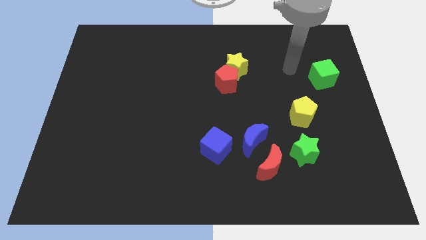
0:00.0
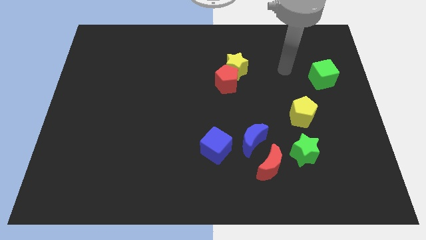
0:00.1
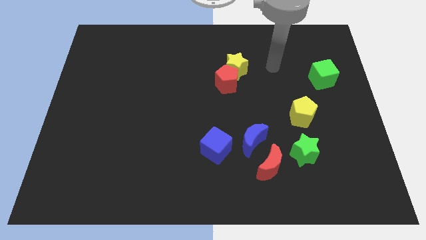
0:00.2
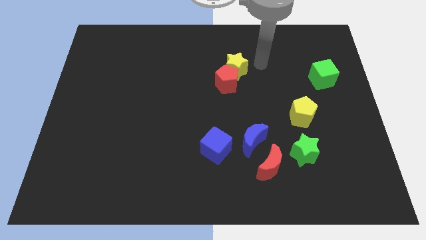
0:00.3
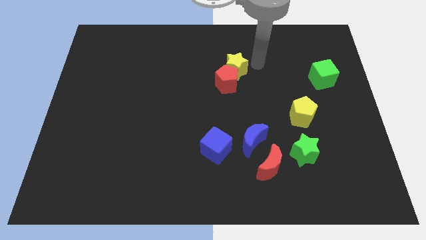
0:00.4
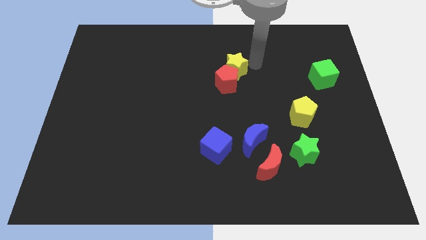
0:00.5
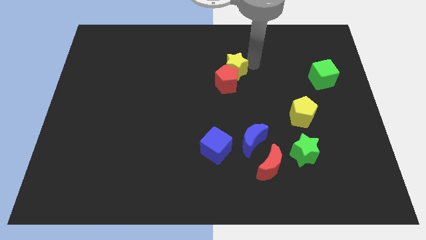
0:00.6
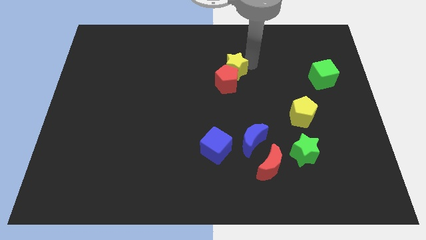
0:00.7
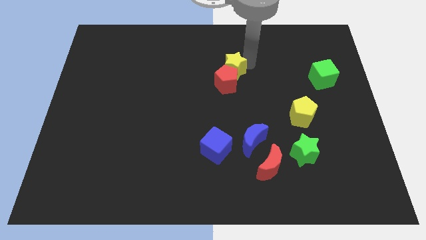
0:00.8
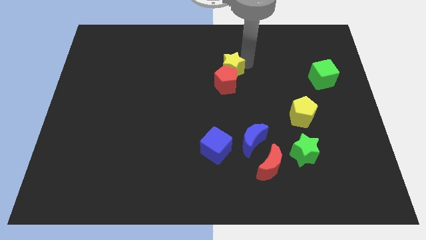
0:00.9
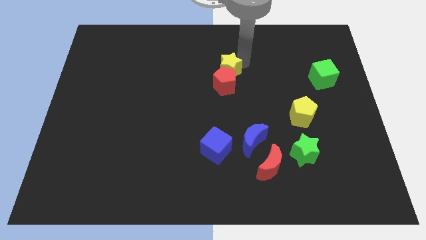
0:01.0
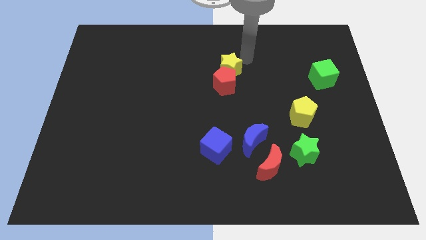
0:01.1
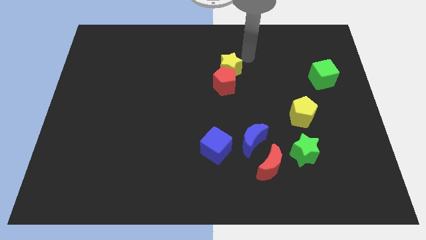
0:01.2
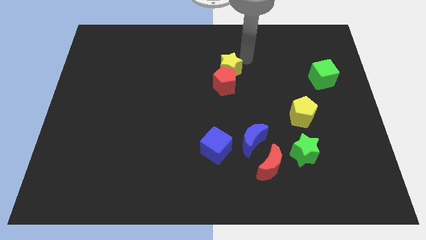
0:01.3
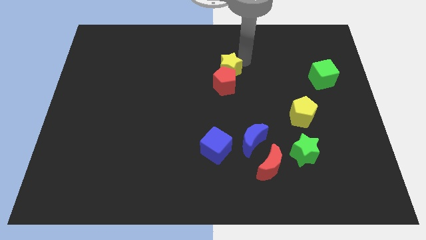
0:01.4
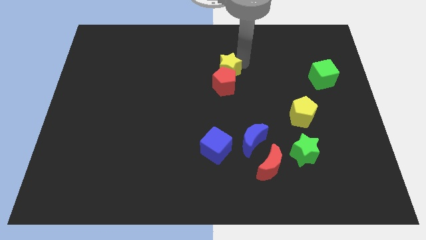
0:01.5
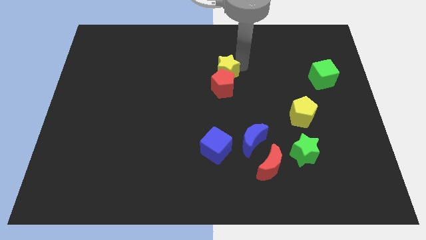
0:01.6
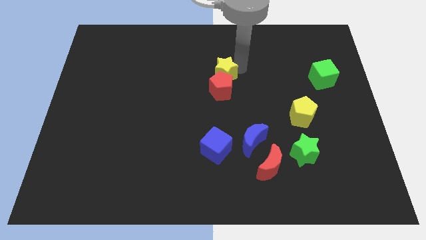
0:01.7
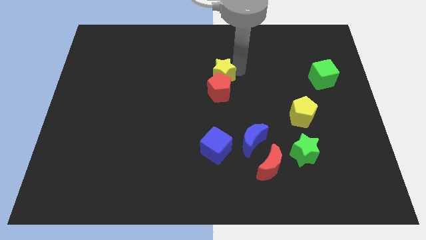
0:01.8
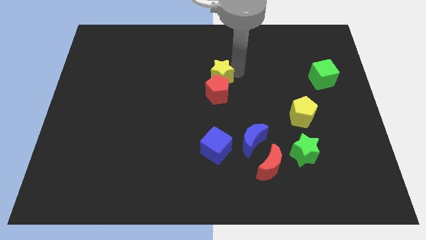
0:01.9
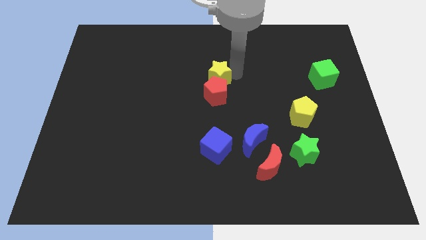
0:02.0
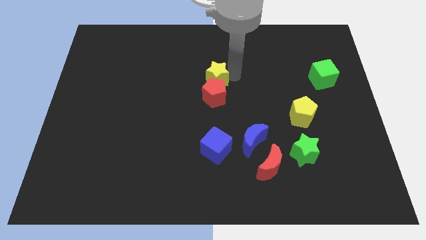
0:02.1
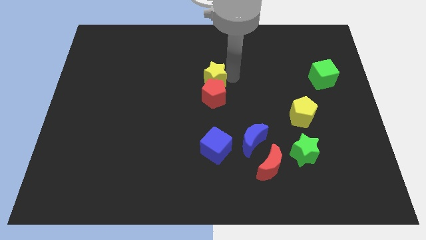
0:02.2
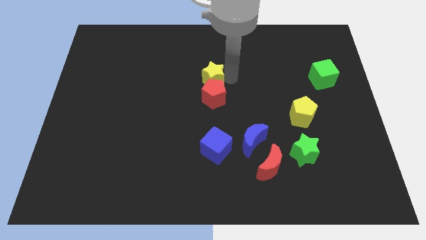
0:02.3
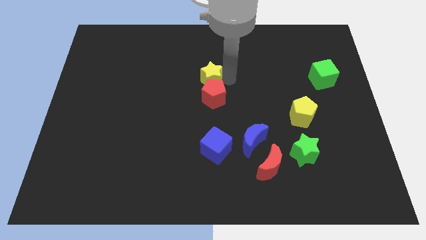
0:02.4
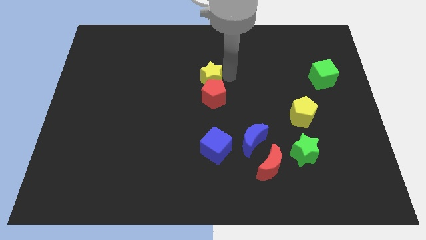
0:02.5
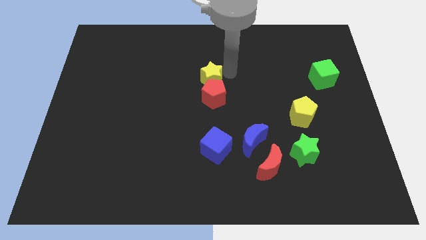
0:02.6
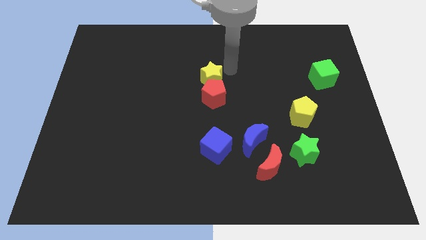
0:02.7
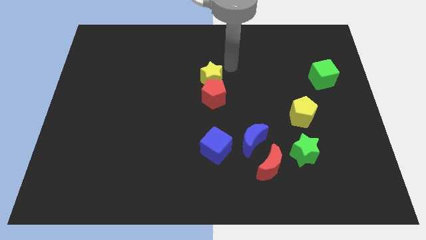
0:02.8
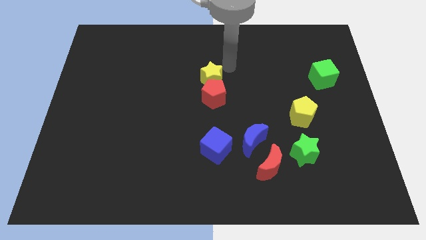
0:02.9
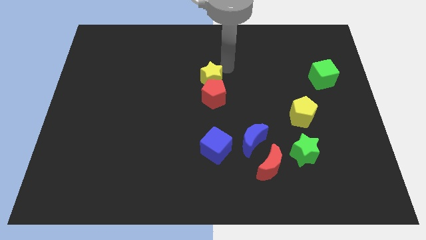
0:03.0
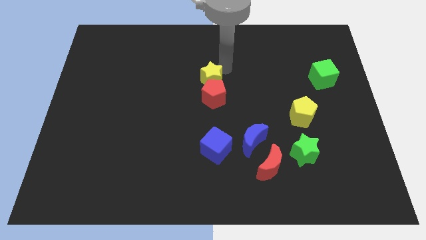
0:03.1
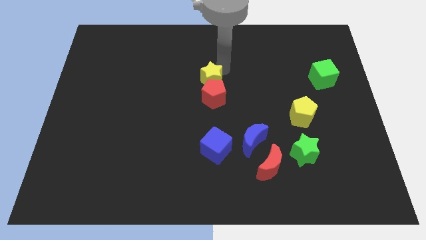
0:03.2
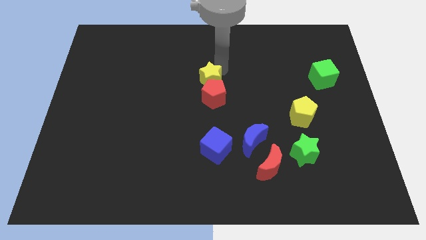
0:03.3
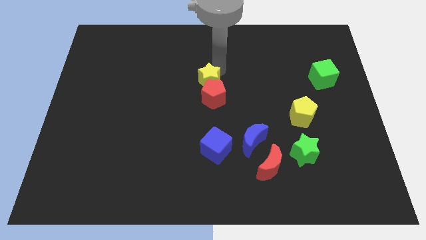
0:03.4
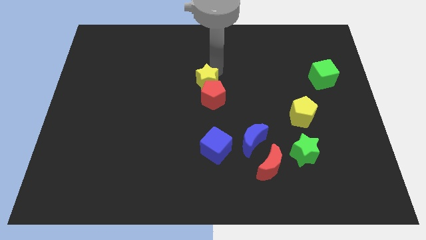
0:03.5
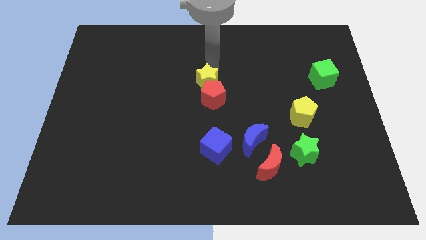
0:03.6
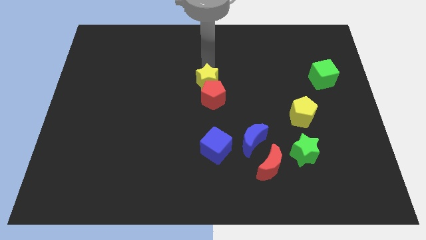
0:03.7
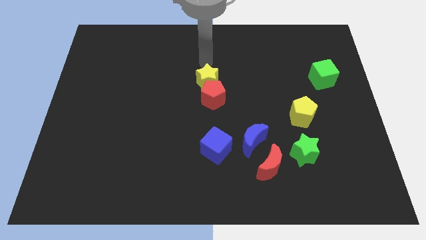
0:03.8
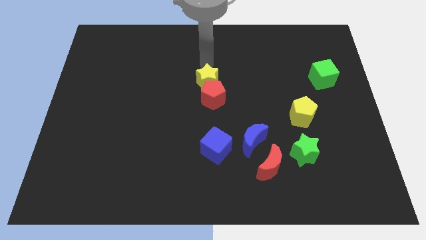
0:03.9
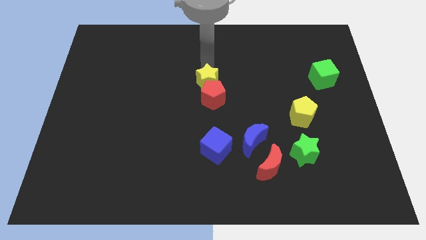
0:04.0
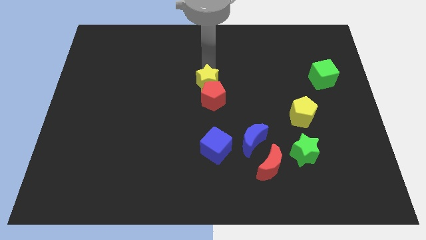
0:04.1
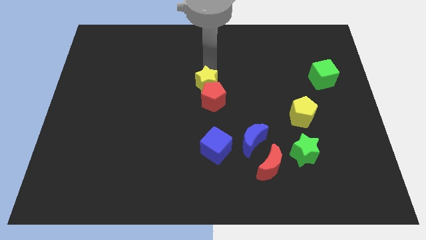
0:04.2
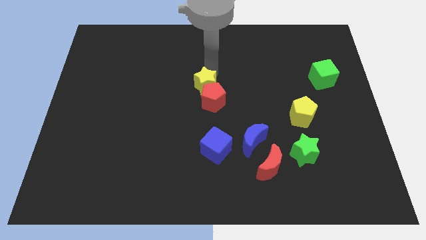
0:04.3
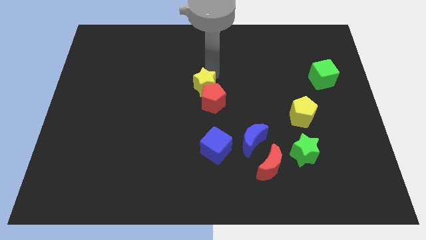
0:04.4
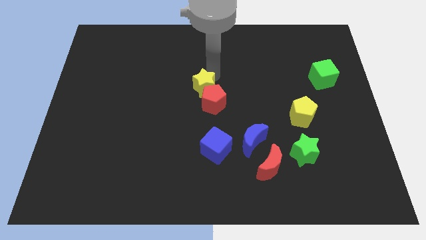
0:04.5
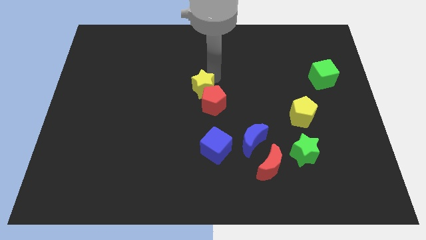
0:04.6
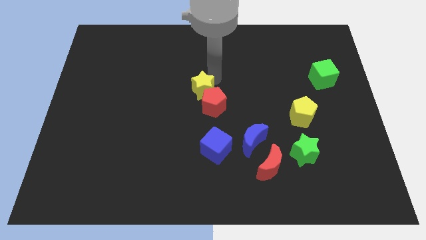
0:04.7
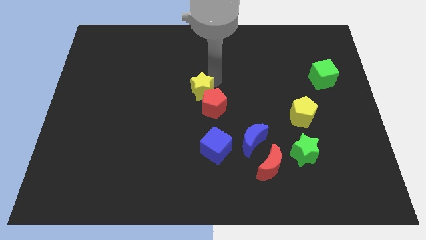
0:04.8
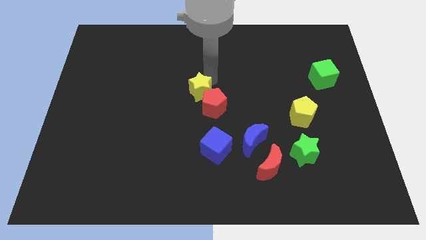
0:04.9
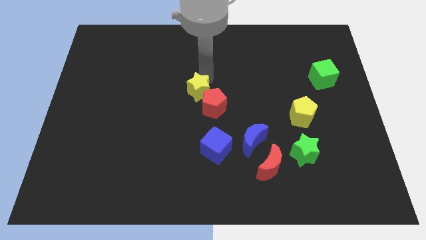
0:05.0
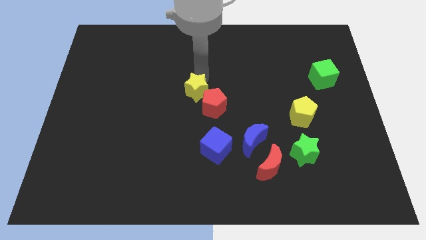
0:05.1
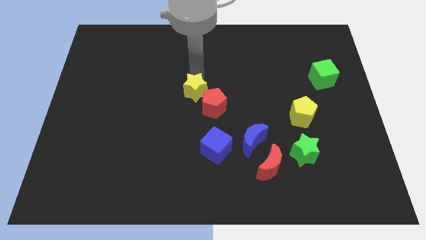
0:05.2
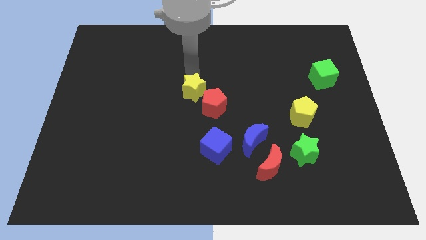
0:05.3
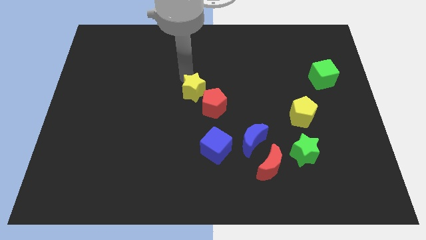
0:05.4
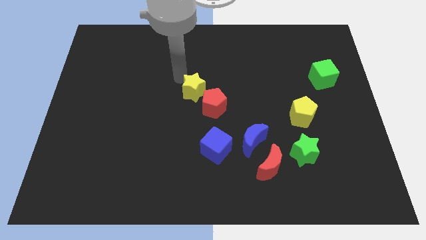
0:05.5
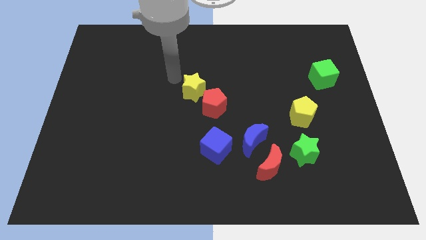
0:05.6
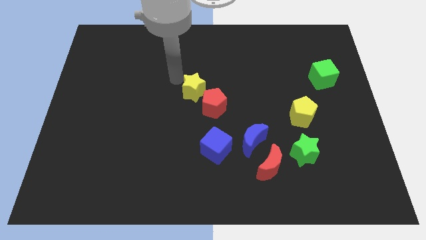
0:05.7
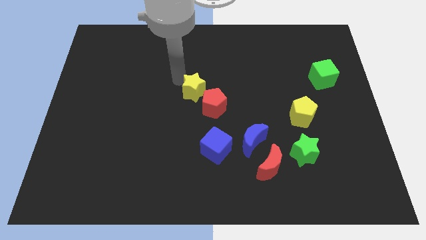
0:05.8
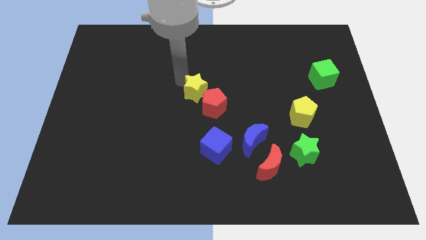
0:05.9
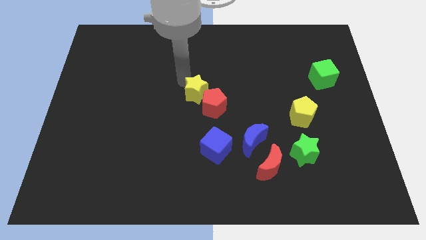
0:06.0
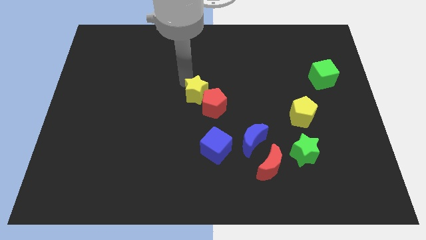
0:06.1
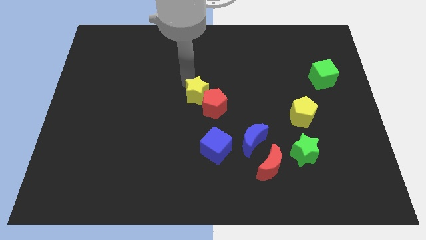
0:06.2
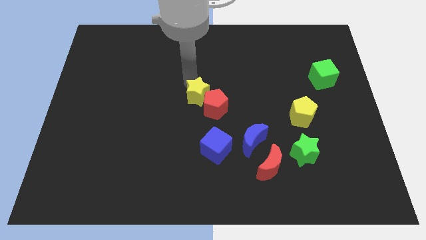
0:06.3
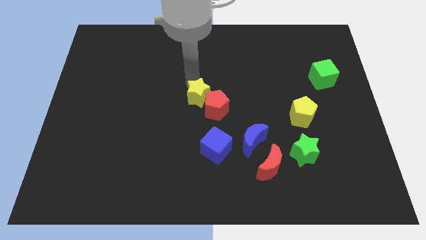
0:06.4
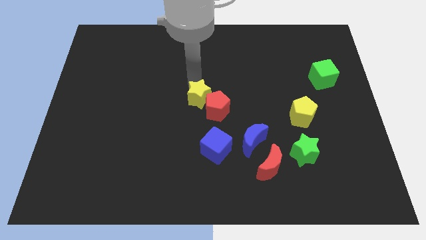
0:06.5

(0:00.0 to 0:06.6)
push the yellow star to the top of the blue cube

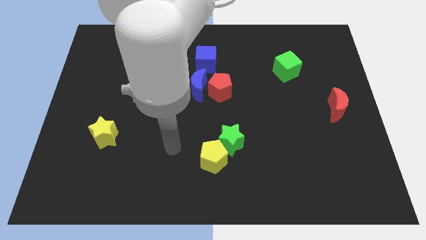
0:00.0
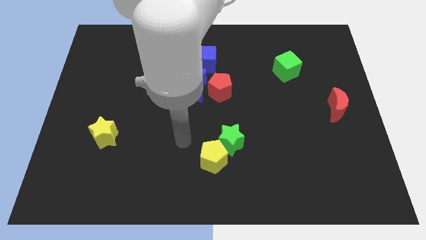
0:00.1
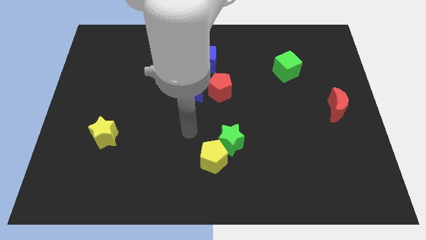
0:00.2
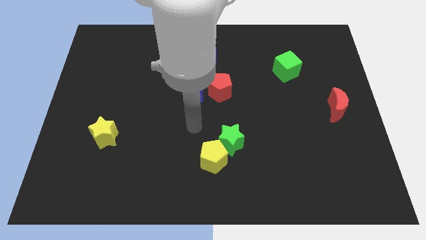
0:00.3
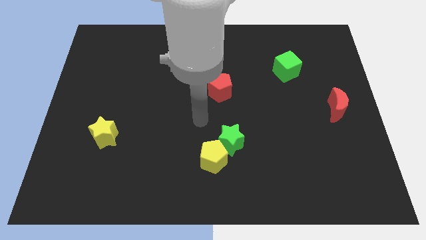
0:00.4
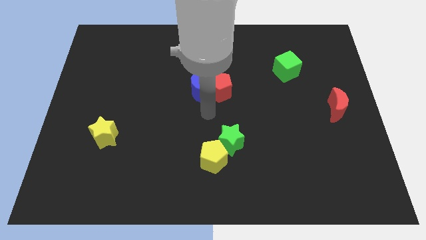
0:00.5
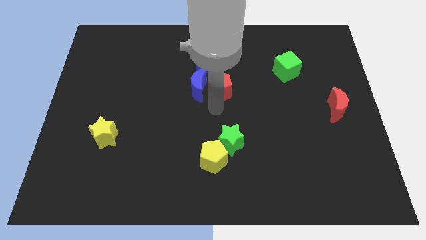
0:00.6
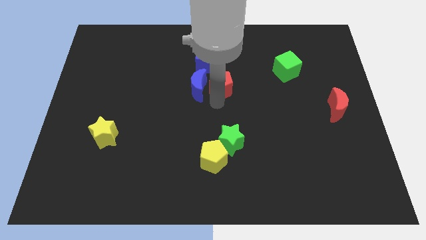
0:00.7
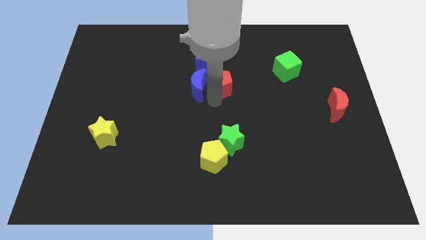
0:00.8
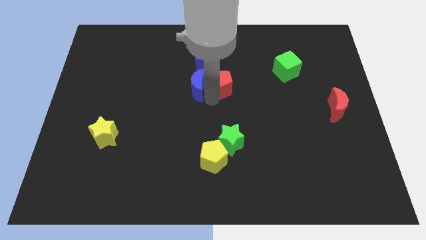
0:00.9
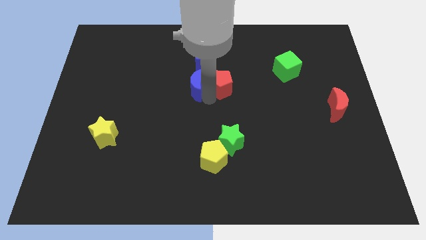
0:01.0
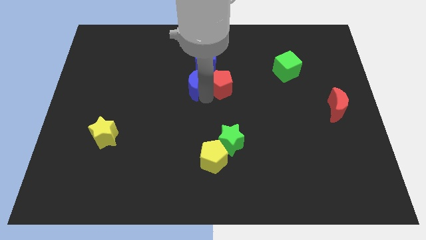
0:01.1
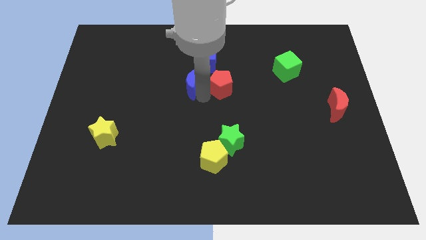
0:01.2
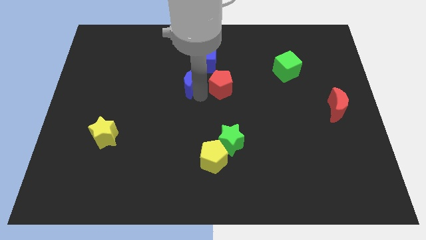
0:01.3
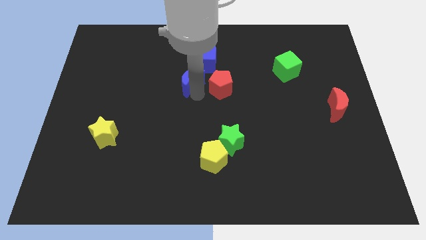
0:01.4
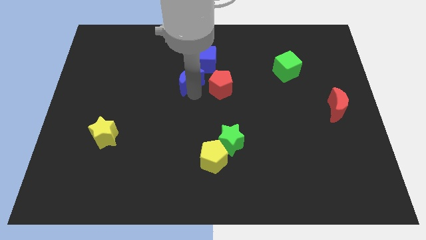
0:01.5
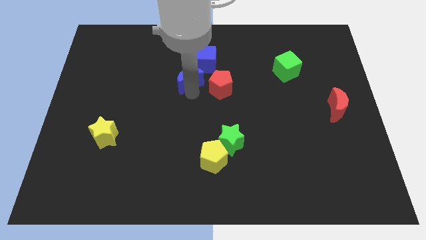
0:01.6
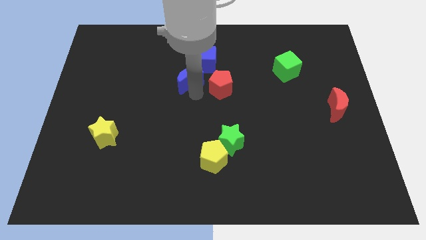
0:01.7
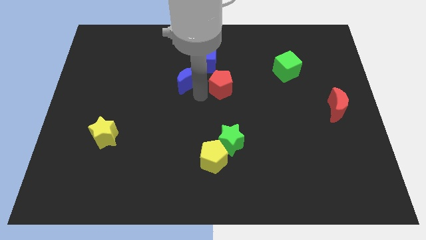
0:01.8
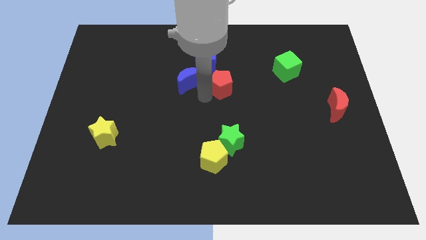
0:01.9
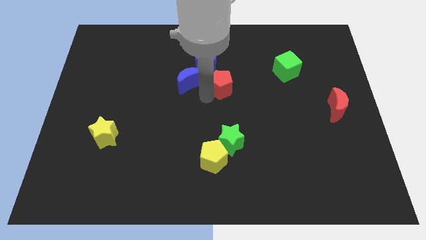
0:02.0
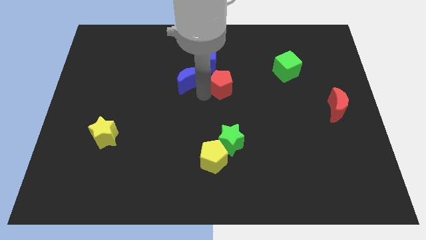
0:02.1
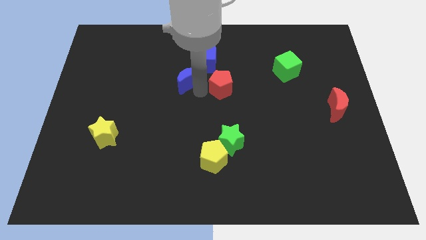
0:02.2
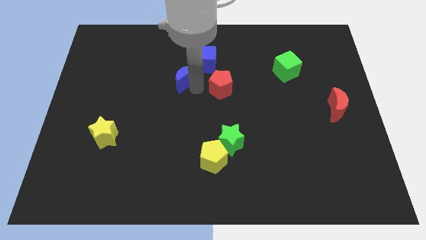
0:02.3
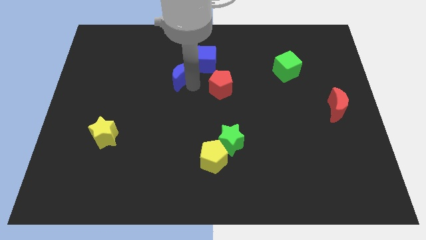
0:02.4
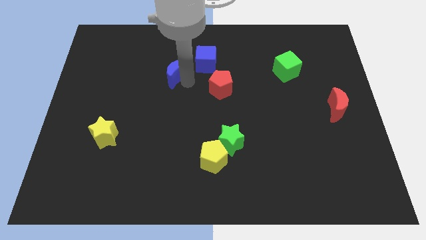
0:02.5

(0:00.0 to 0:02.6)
push the blue moon to the left side of the blue cube
